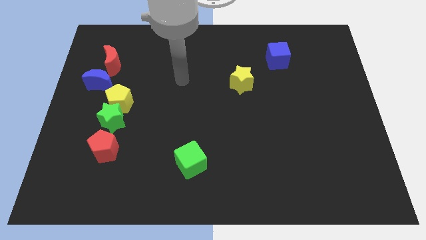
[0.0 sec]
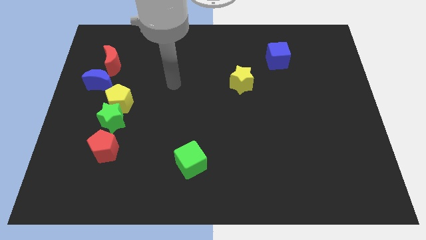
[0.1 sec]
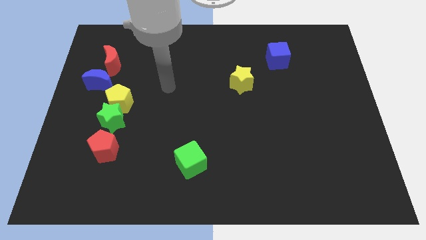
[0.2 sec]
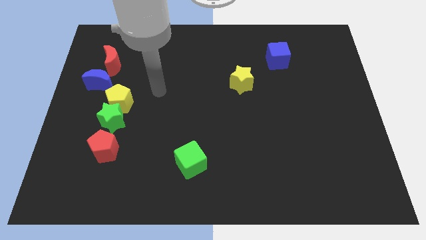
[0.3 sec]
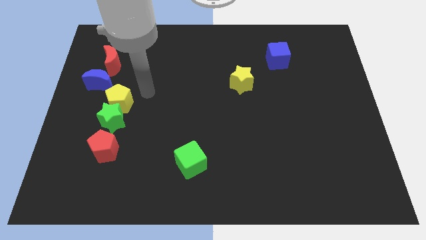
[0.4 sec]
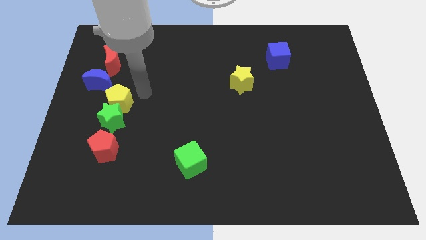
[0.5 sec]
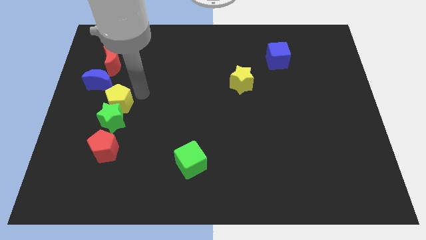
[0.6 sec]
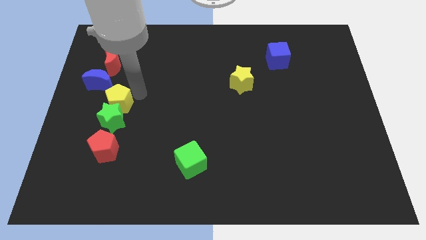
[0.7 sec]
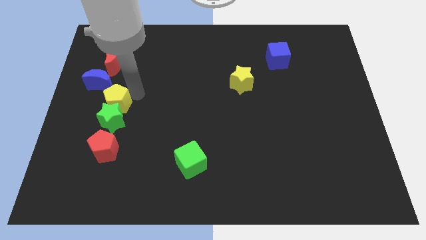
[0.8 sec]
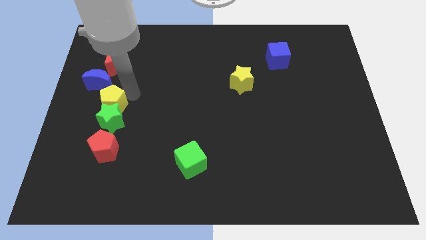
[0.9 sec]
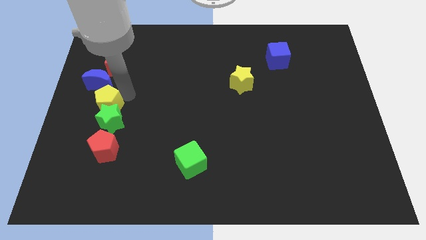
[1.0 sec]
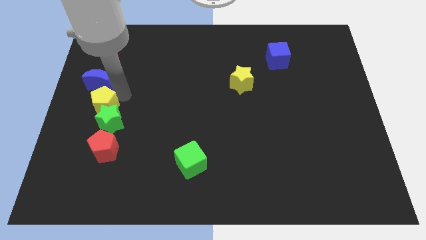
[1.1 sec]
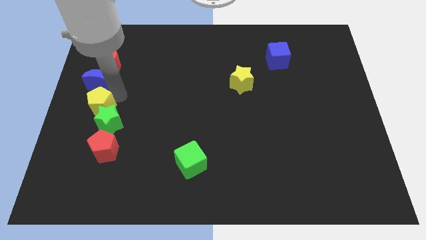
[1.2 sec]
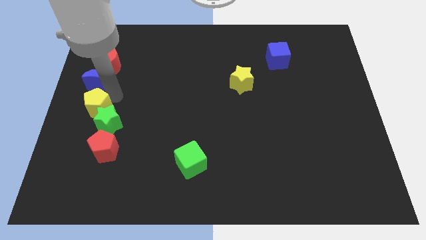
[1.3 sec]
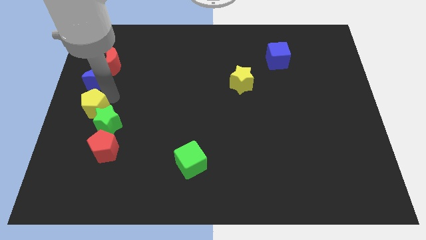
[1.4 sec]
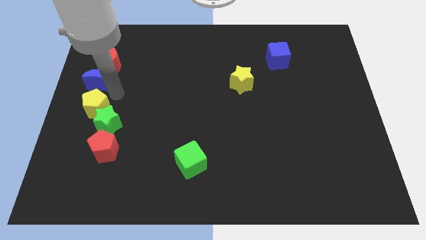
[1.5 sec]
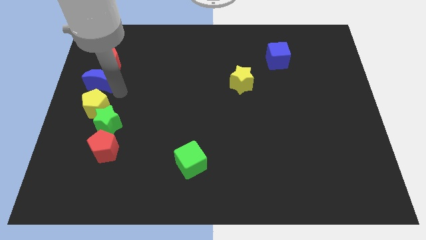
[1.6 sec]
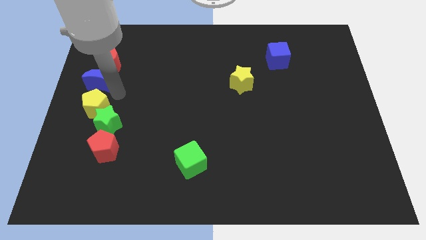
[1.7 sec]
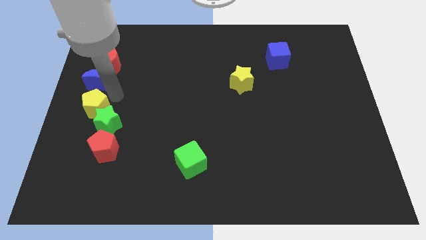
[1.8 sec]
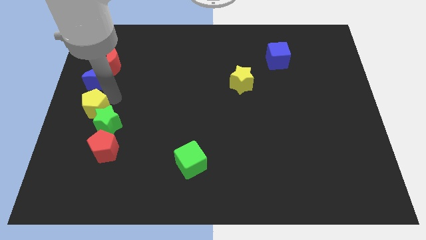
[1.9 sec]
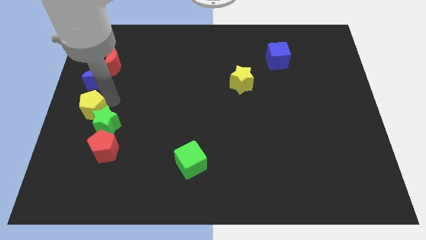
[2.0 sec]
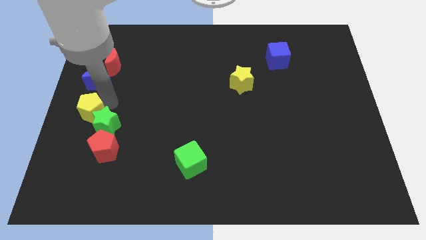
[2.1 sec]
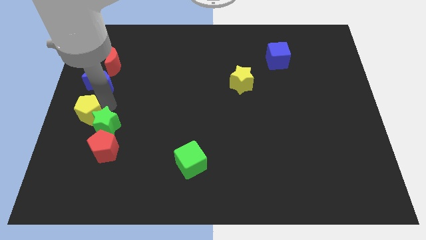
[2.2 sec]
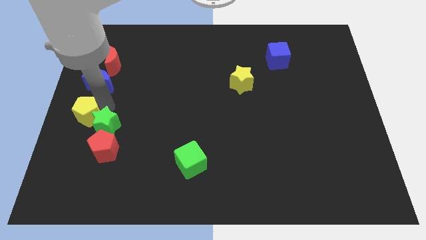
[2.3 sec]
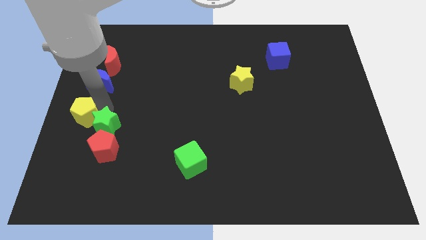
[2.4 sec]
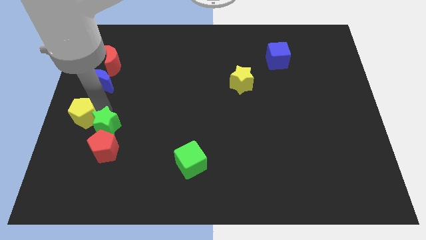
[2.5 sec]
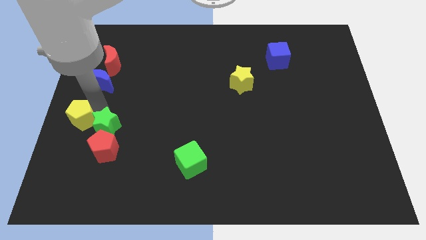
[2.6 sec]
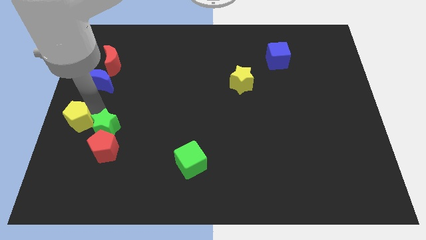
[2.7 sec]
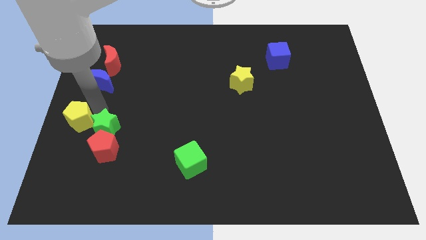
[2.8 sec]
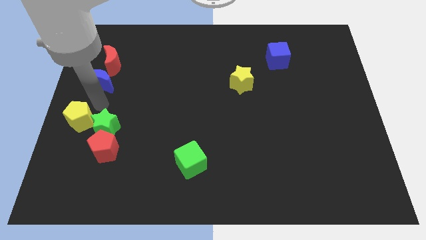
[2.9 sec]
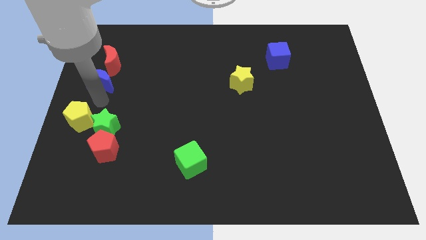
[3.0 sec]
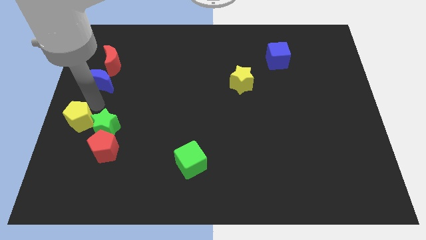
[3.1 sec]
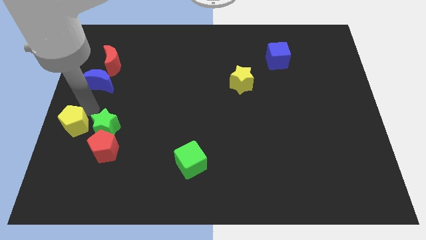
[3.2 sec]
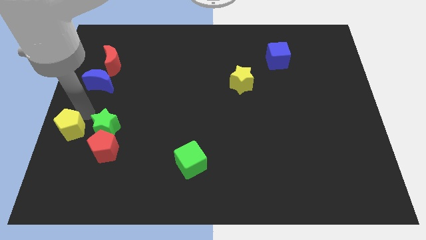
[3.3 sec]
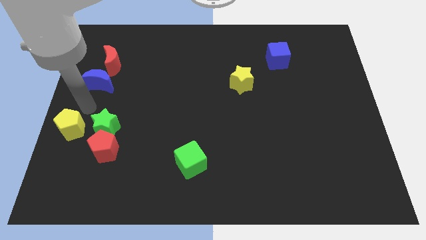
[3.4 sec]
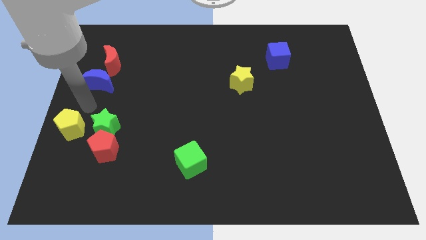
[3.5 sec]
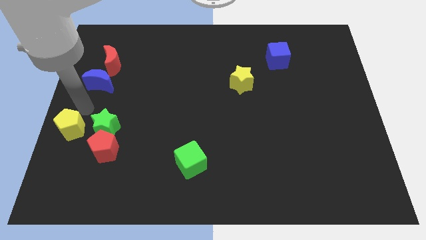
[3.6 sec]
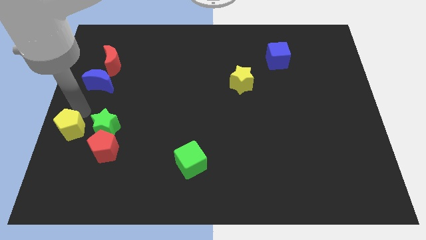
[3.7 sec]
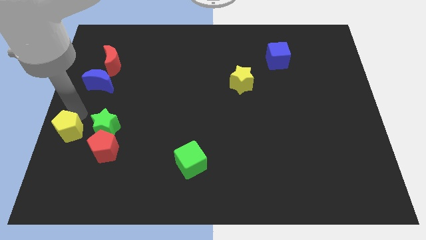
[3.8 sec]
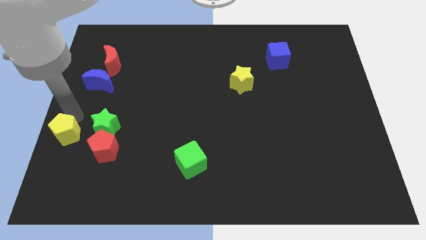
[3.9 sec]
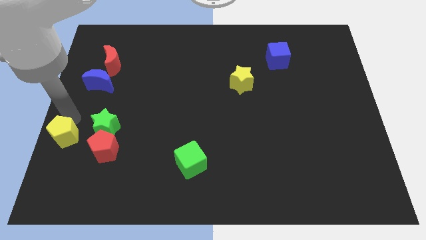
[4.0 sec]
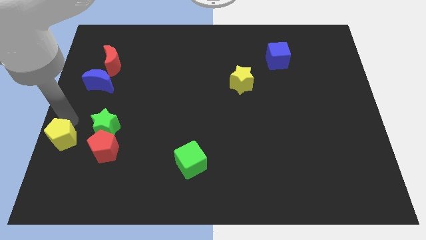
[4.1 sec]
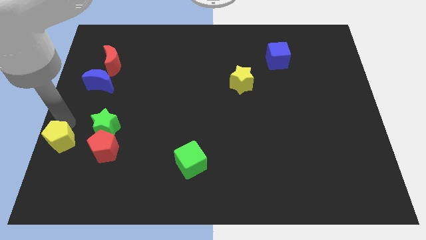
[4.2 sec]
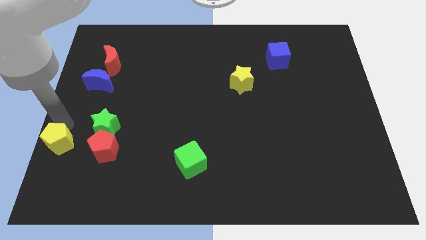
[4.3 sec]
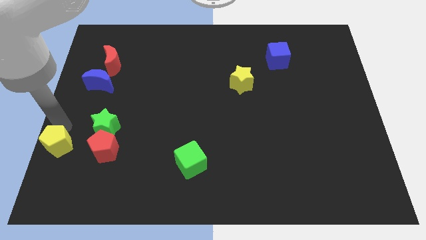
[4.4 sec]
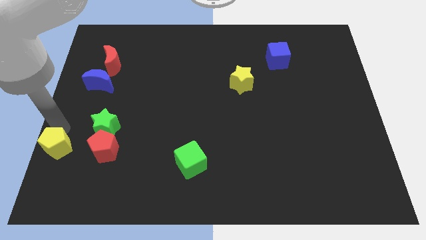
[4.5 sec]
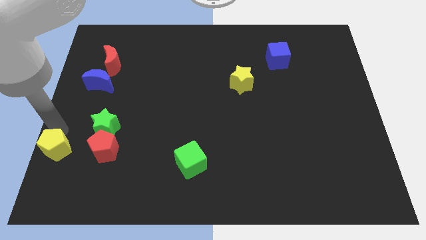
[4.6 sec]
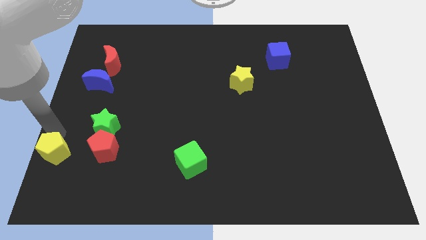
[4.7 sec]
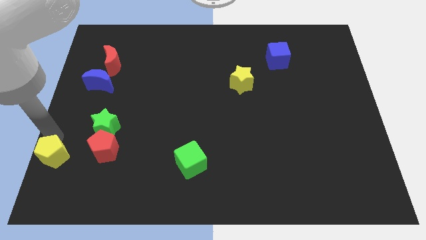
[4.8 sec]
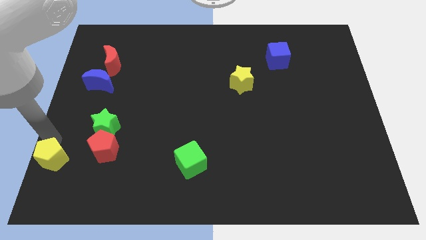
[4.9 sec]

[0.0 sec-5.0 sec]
slide the yellow pentagon to the bottom left of the board

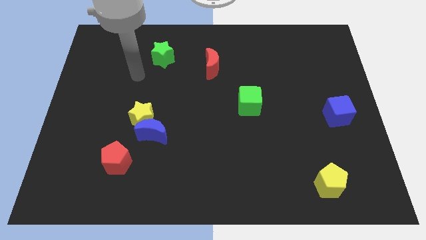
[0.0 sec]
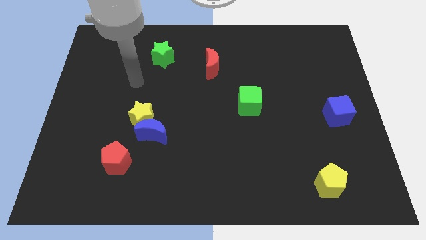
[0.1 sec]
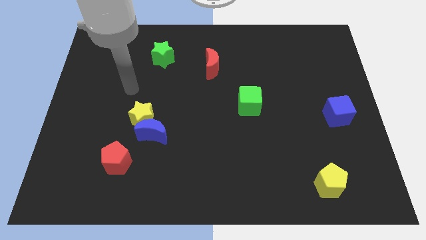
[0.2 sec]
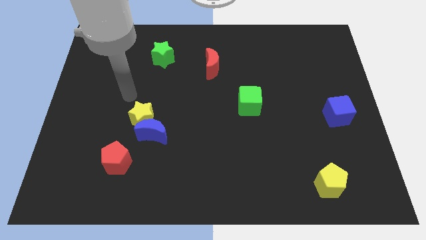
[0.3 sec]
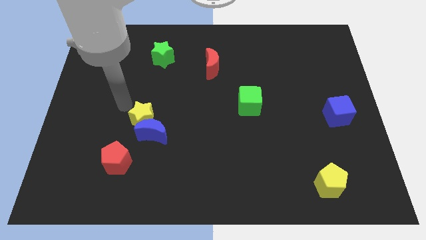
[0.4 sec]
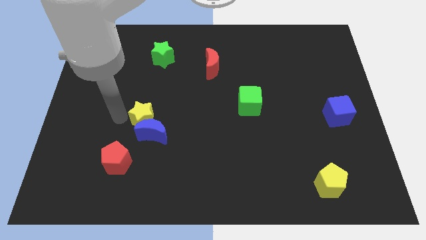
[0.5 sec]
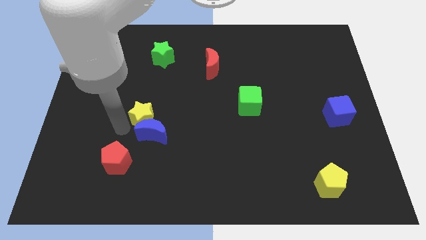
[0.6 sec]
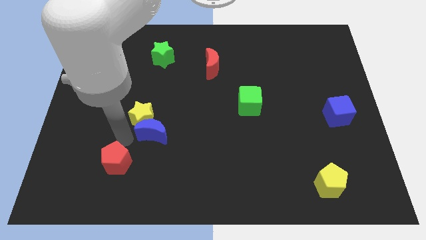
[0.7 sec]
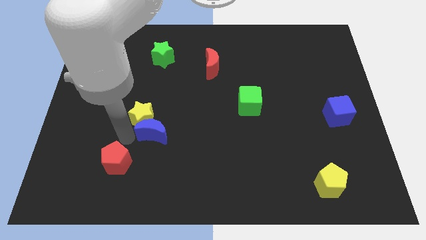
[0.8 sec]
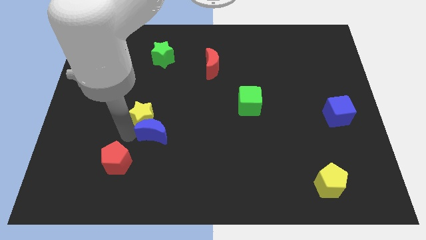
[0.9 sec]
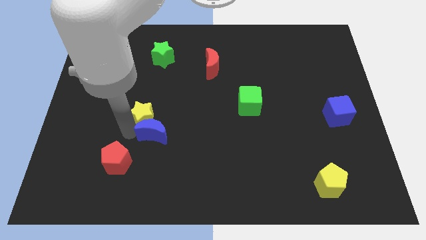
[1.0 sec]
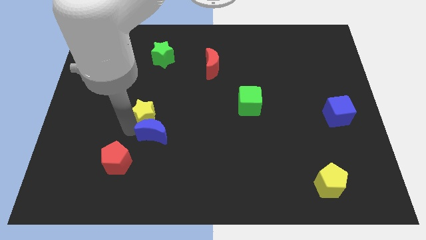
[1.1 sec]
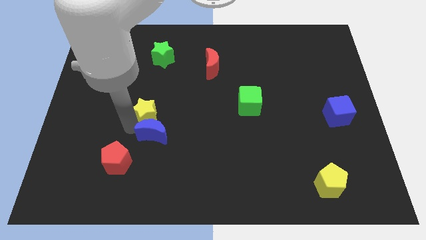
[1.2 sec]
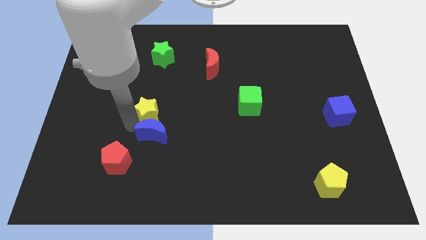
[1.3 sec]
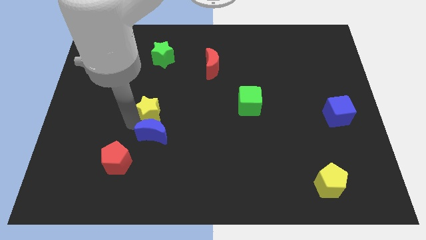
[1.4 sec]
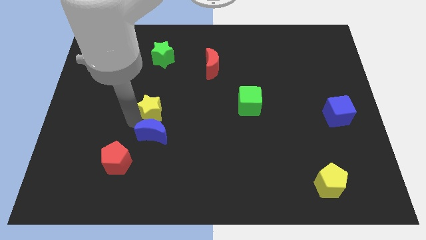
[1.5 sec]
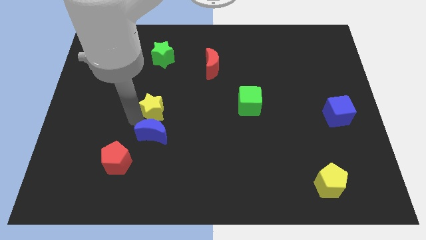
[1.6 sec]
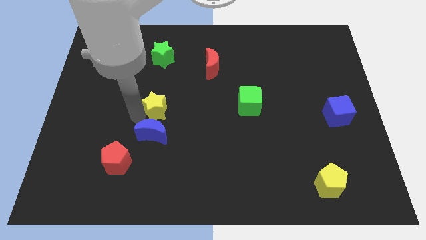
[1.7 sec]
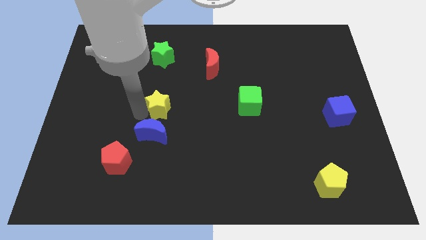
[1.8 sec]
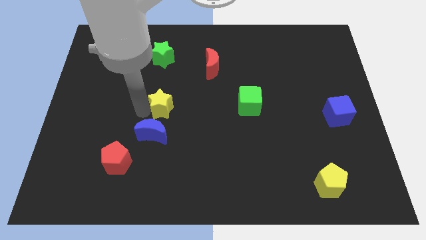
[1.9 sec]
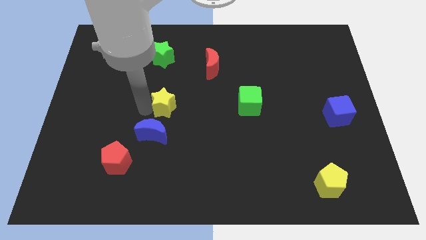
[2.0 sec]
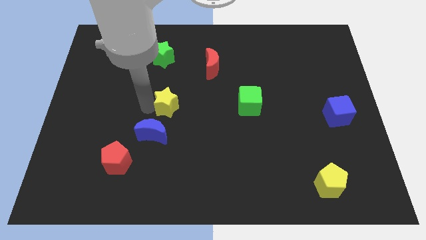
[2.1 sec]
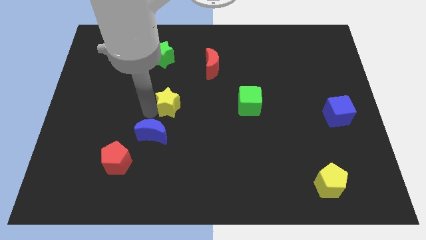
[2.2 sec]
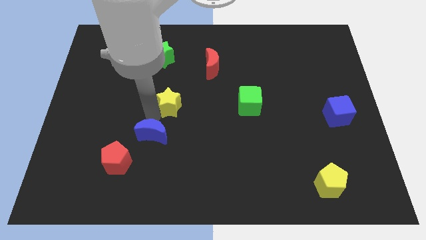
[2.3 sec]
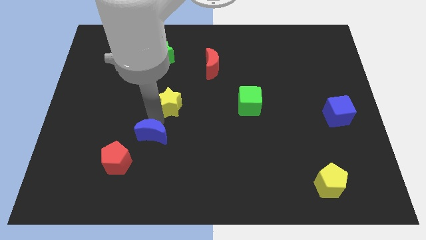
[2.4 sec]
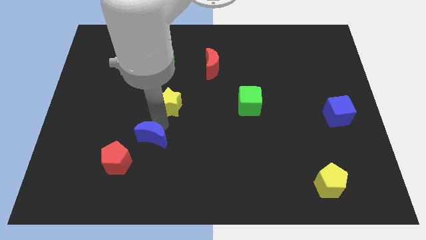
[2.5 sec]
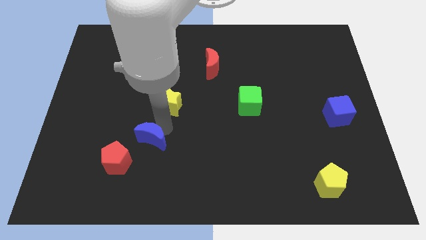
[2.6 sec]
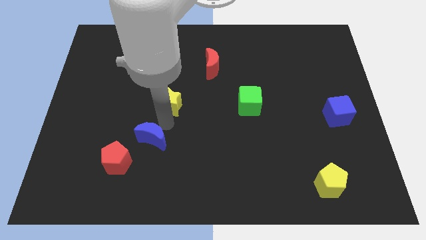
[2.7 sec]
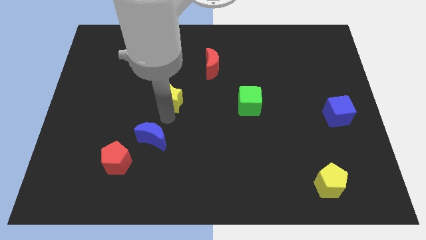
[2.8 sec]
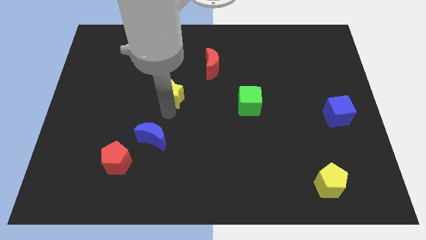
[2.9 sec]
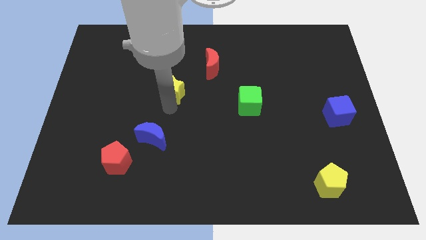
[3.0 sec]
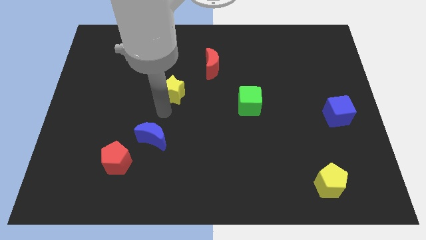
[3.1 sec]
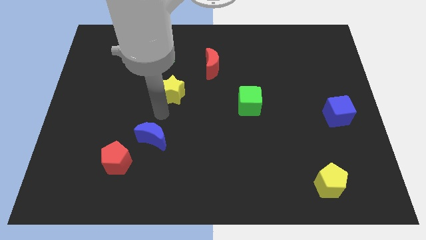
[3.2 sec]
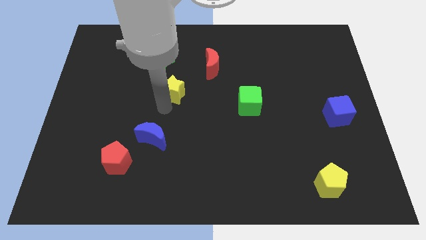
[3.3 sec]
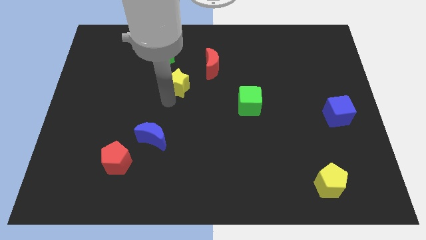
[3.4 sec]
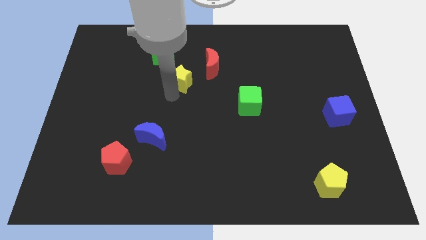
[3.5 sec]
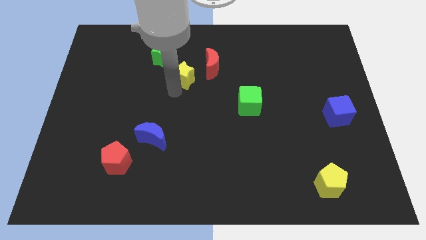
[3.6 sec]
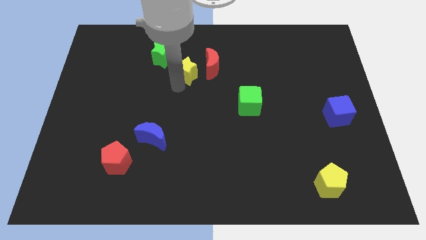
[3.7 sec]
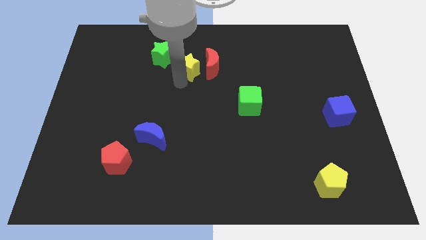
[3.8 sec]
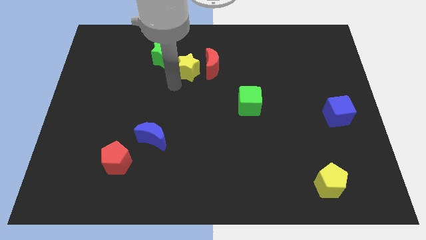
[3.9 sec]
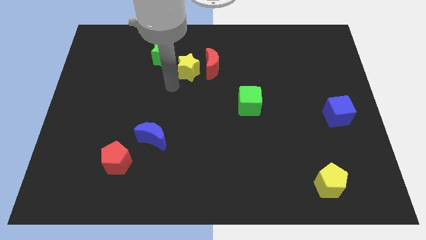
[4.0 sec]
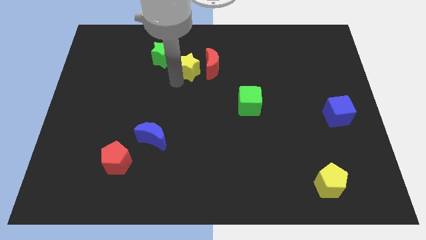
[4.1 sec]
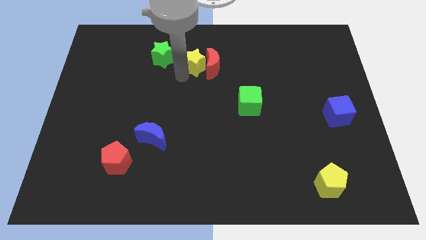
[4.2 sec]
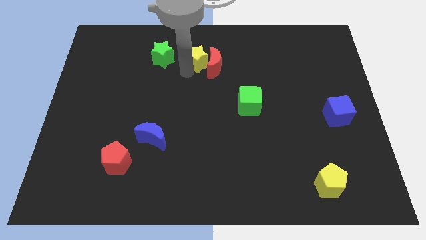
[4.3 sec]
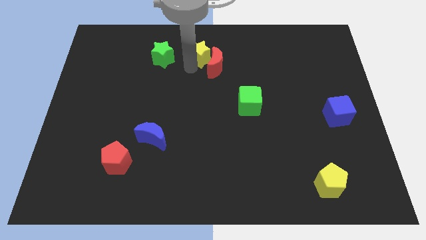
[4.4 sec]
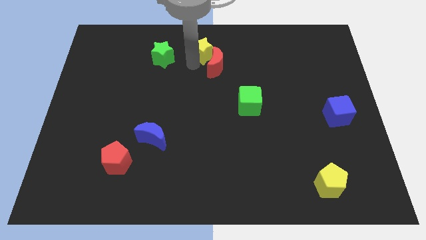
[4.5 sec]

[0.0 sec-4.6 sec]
put the yellow star to the towards your base
